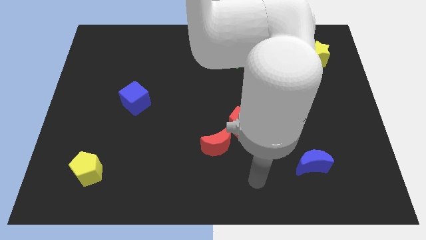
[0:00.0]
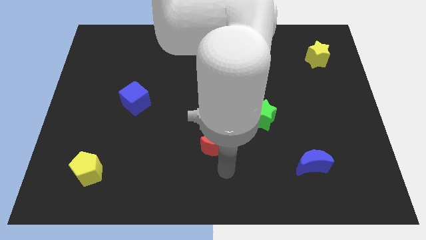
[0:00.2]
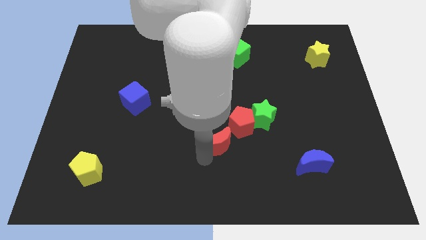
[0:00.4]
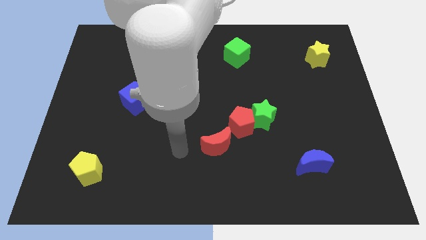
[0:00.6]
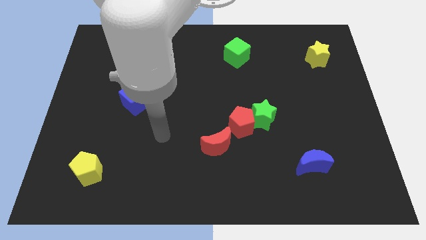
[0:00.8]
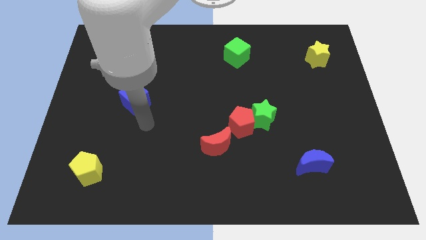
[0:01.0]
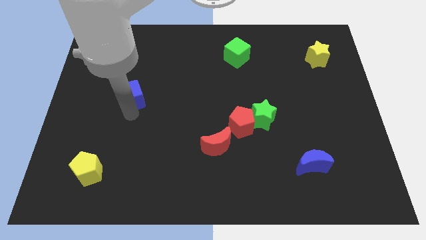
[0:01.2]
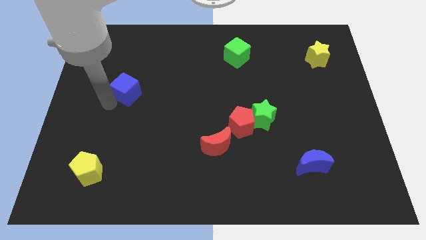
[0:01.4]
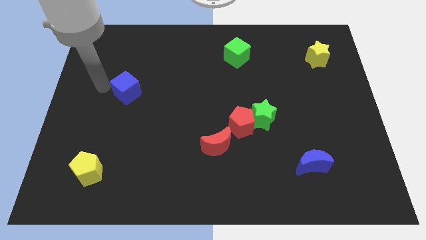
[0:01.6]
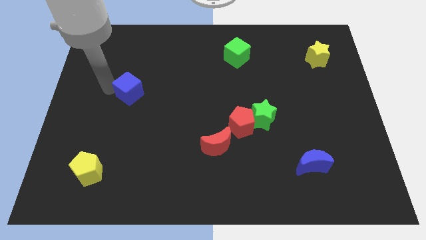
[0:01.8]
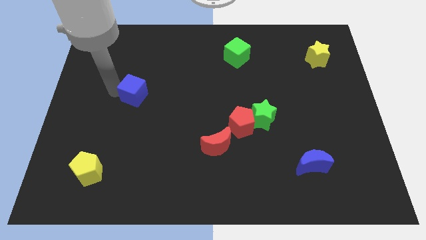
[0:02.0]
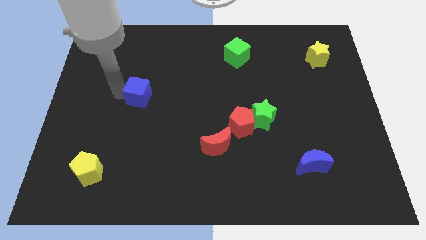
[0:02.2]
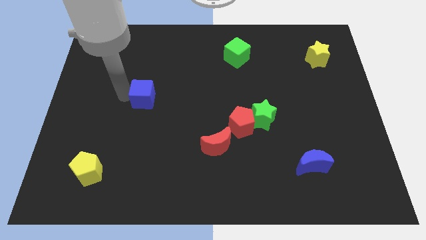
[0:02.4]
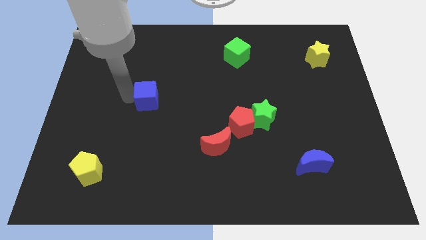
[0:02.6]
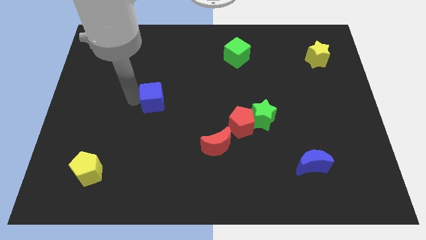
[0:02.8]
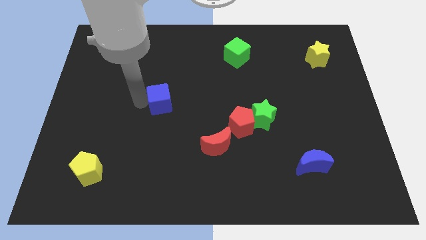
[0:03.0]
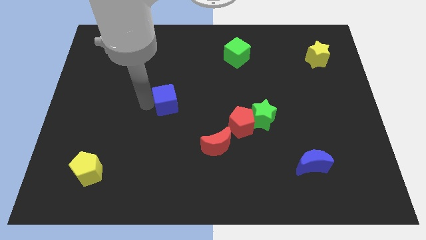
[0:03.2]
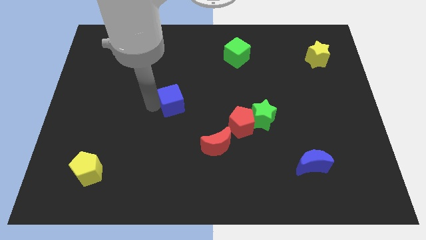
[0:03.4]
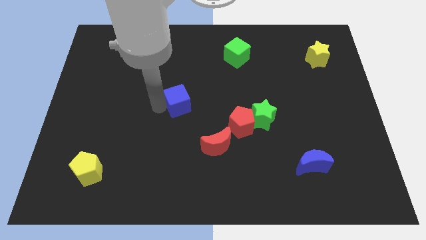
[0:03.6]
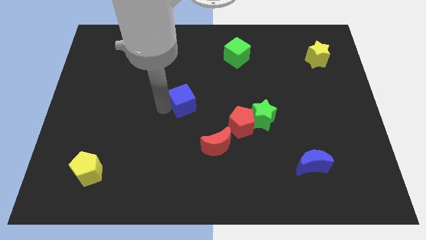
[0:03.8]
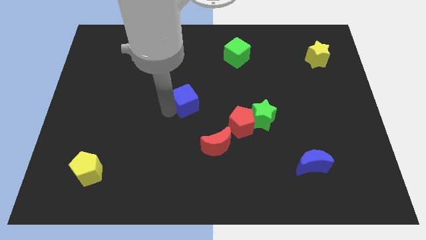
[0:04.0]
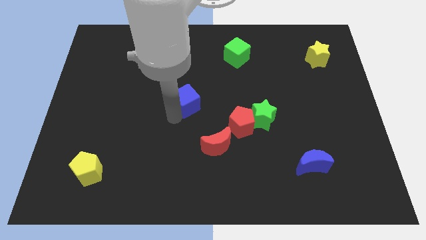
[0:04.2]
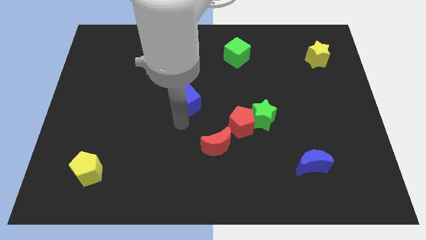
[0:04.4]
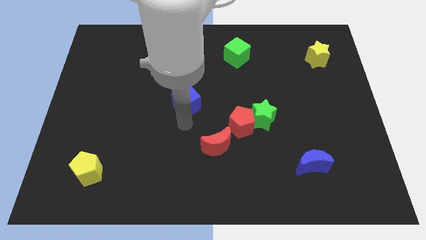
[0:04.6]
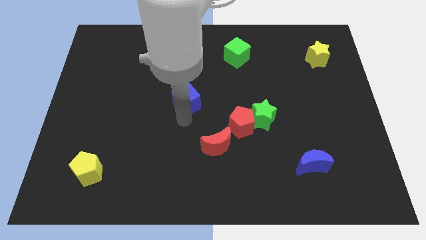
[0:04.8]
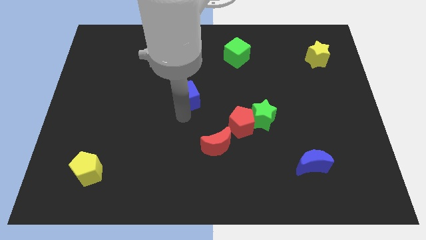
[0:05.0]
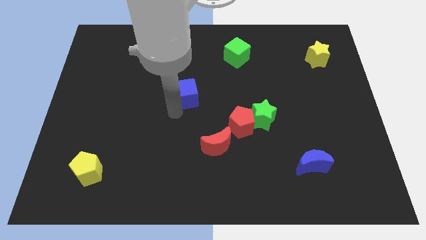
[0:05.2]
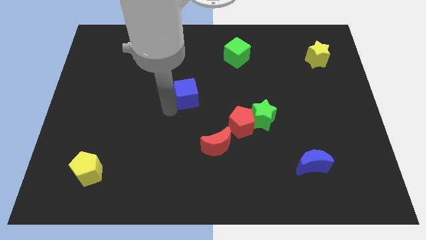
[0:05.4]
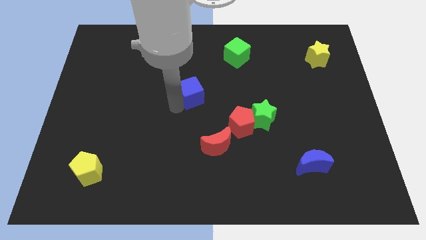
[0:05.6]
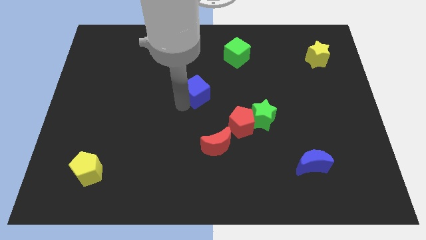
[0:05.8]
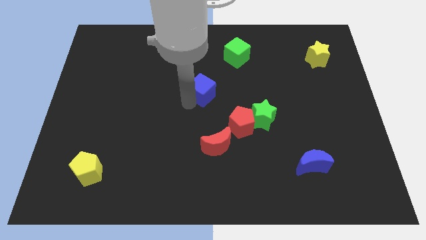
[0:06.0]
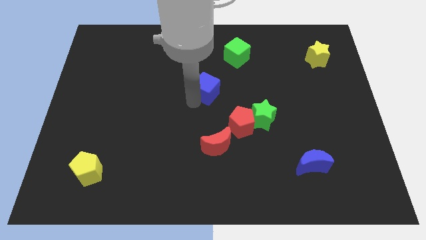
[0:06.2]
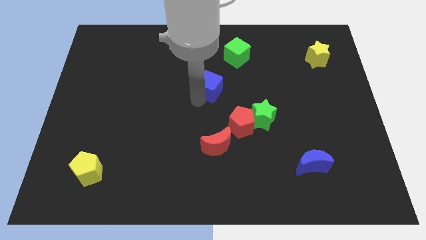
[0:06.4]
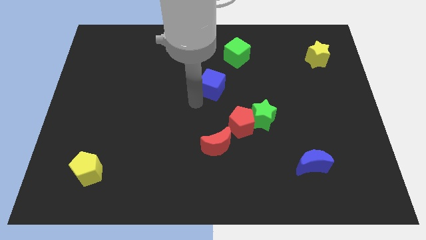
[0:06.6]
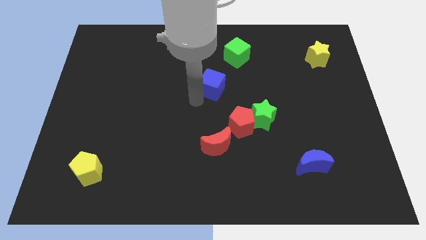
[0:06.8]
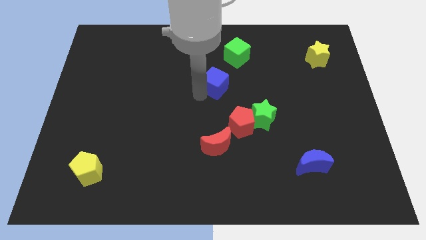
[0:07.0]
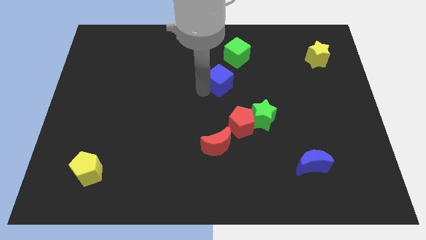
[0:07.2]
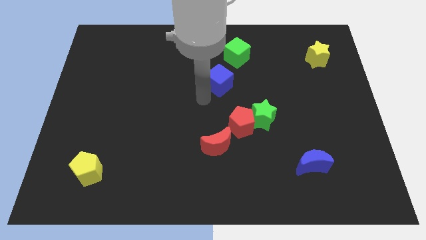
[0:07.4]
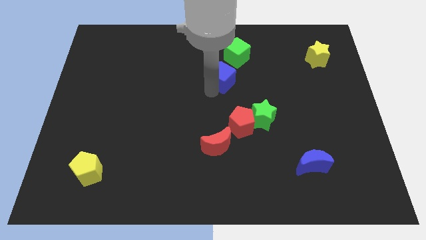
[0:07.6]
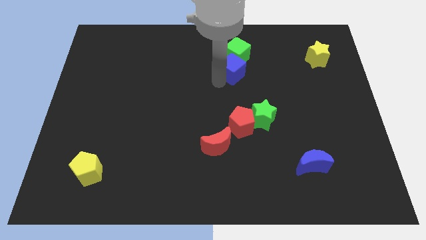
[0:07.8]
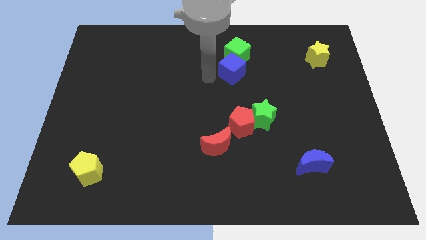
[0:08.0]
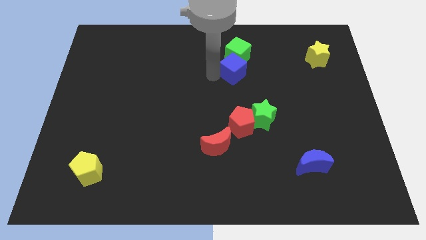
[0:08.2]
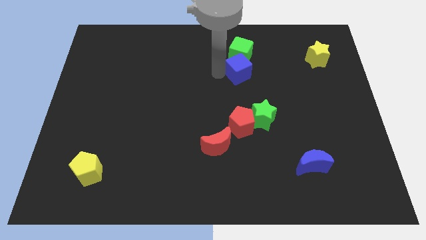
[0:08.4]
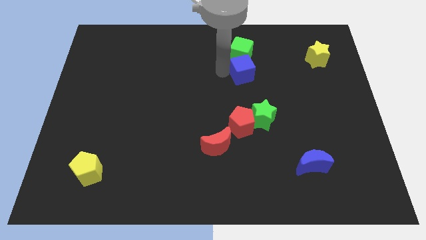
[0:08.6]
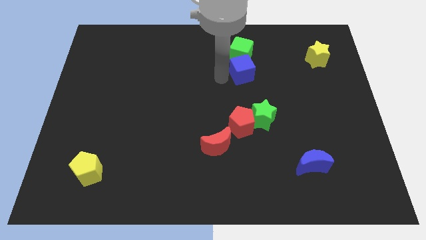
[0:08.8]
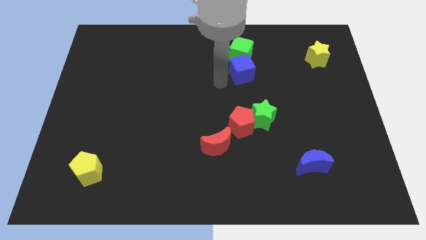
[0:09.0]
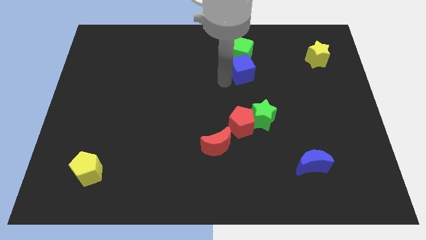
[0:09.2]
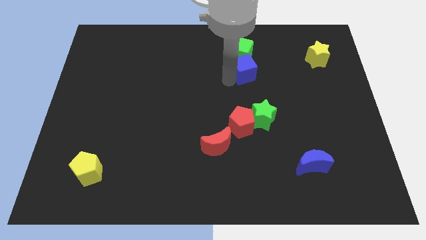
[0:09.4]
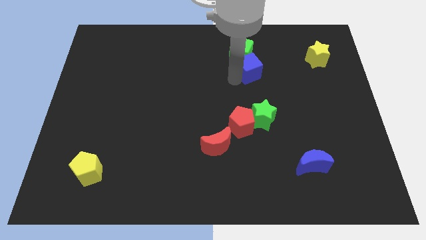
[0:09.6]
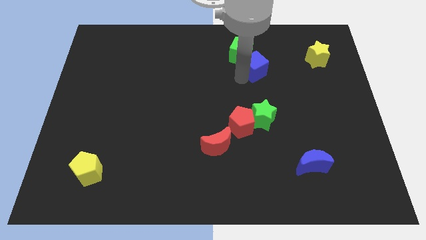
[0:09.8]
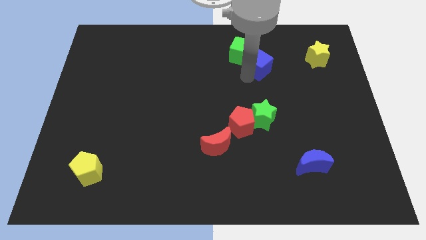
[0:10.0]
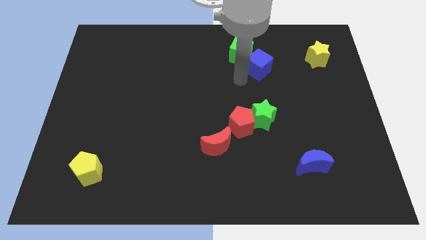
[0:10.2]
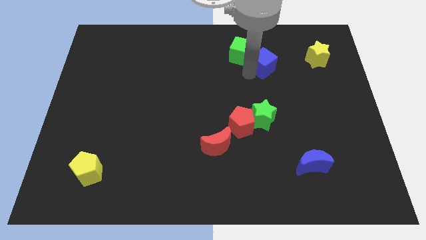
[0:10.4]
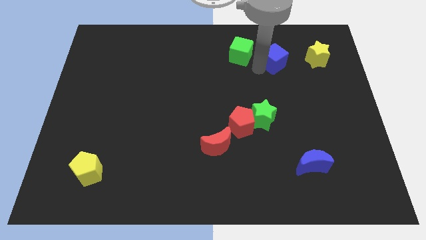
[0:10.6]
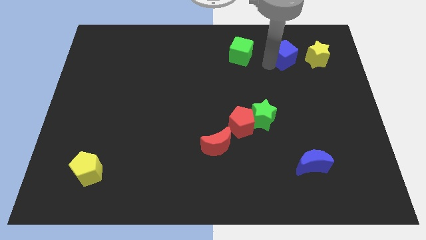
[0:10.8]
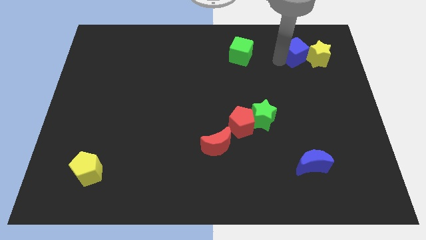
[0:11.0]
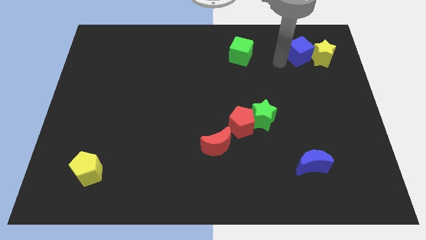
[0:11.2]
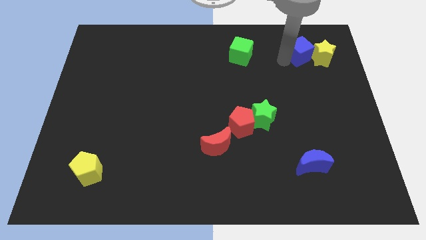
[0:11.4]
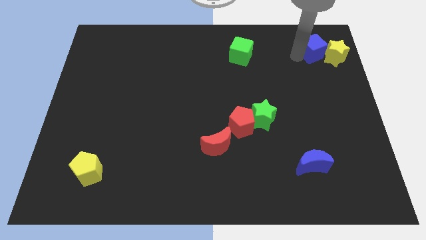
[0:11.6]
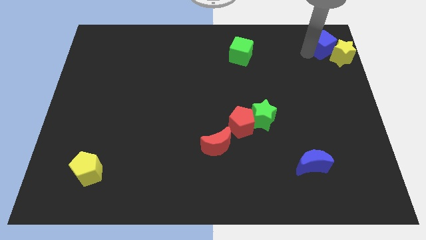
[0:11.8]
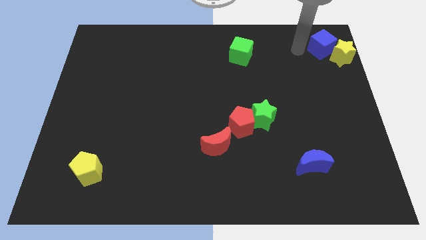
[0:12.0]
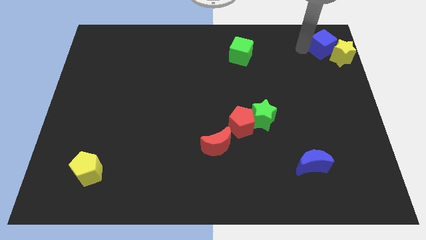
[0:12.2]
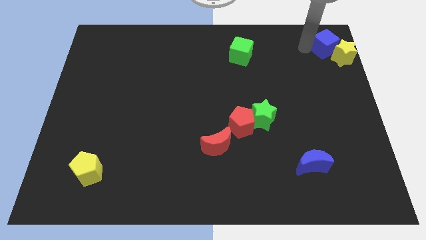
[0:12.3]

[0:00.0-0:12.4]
move the blue cube to the top right corner
